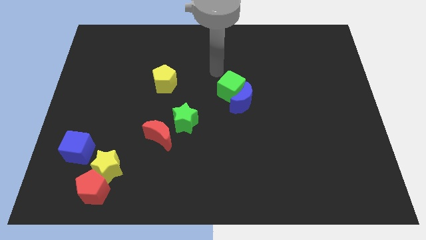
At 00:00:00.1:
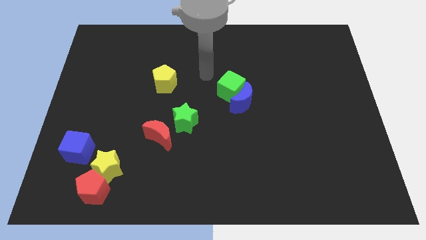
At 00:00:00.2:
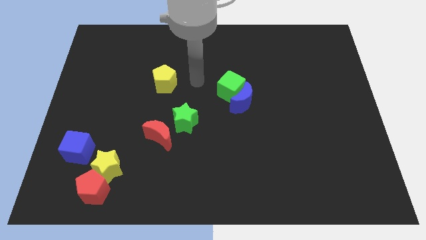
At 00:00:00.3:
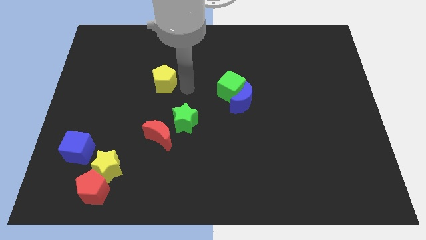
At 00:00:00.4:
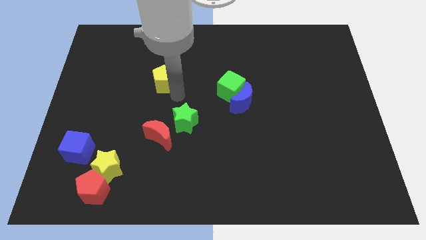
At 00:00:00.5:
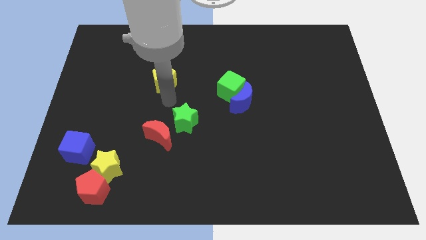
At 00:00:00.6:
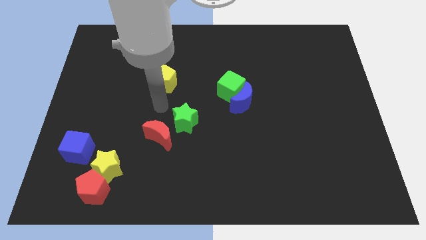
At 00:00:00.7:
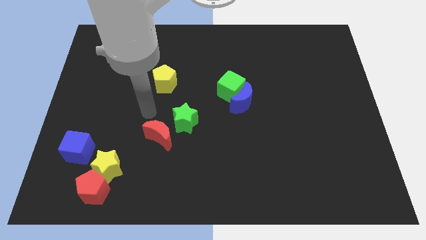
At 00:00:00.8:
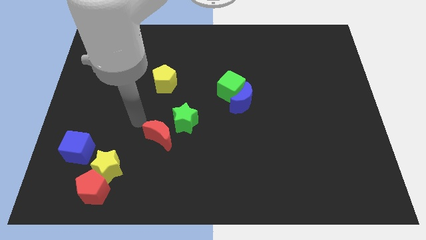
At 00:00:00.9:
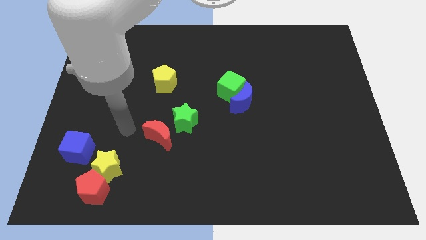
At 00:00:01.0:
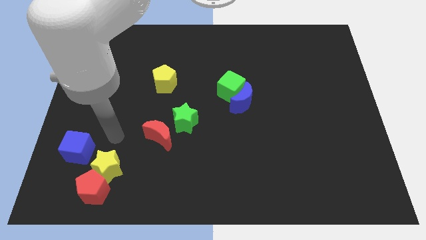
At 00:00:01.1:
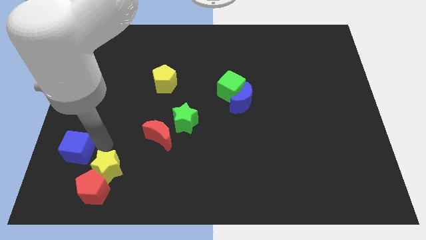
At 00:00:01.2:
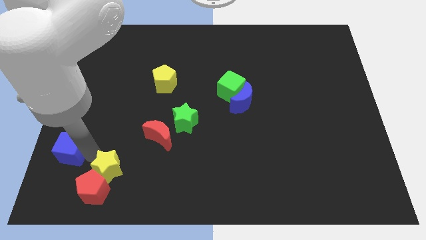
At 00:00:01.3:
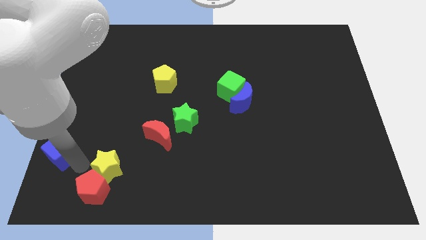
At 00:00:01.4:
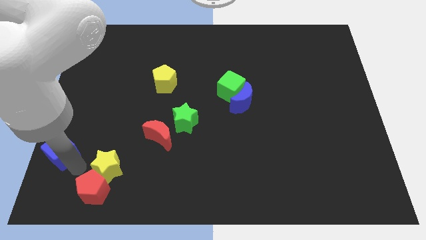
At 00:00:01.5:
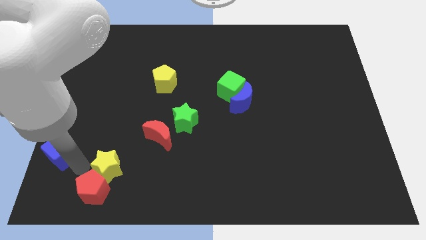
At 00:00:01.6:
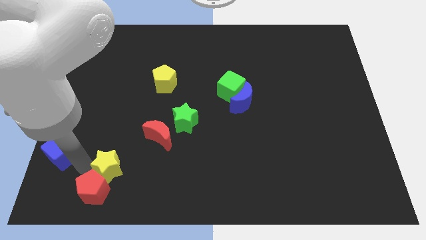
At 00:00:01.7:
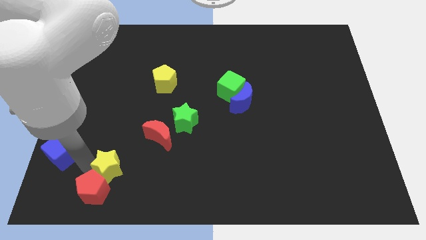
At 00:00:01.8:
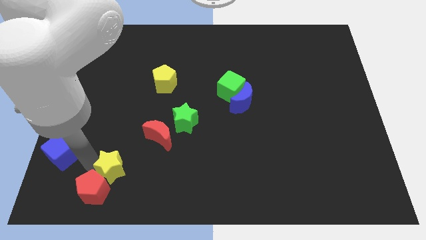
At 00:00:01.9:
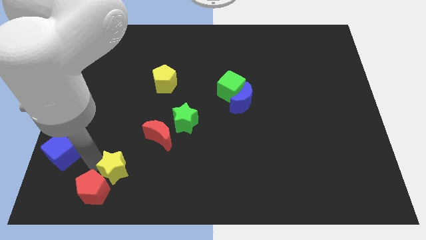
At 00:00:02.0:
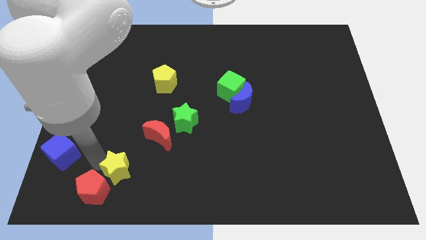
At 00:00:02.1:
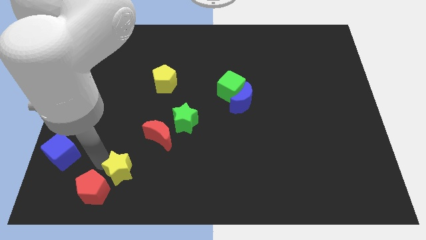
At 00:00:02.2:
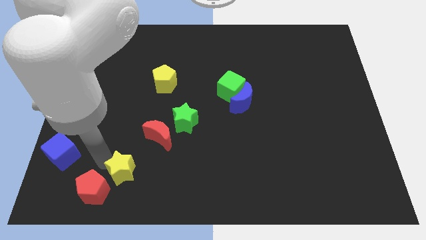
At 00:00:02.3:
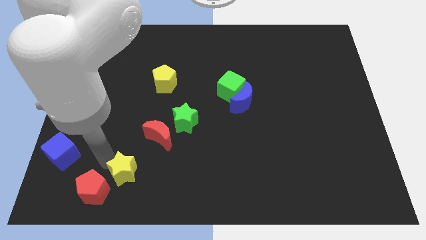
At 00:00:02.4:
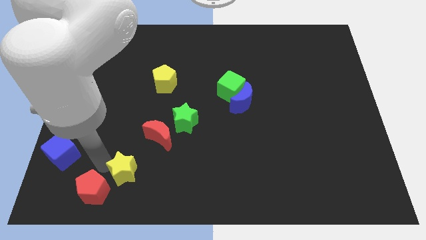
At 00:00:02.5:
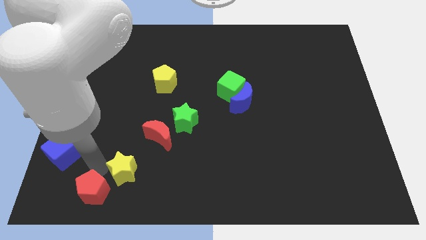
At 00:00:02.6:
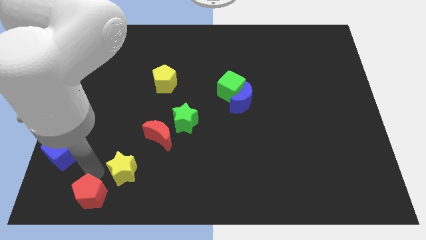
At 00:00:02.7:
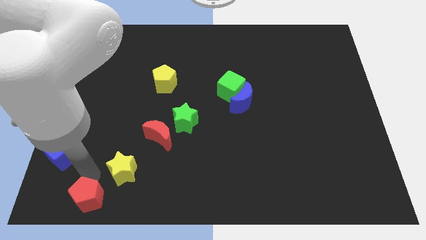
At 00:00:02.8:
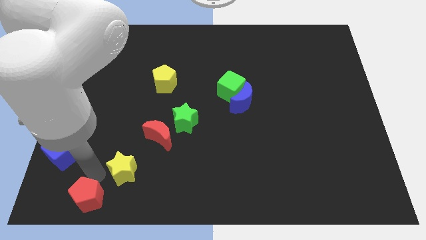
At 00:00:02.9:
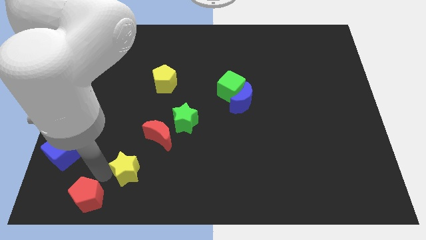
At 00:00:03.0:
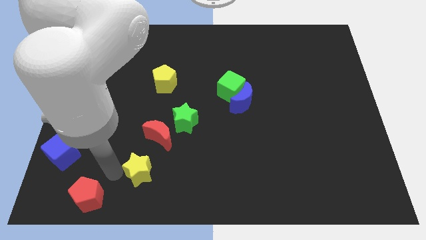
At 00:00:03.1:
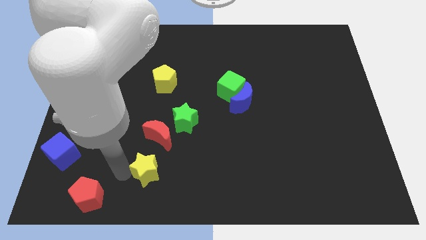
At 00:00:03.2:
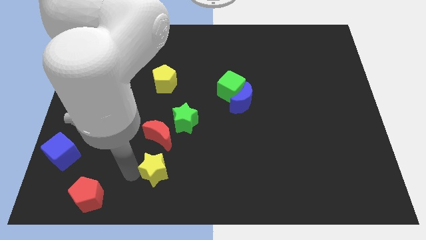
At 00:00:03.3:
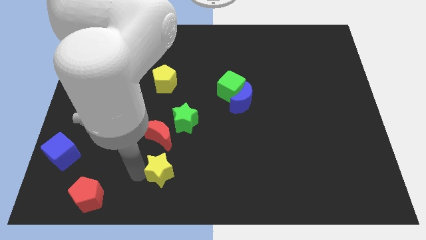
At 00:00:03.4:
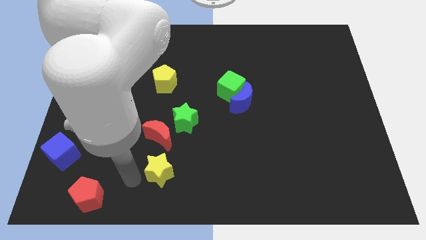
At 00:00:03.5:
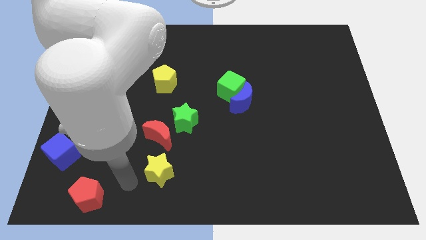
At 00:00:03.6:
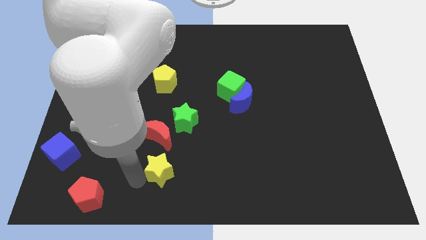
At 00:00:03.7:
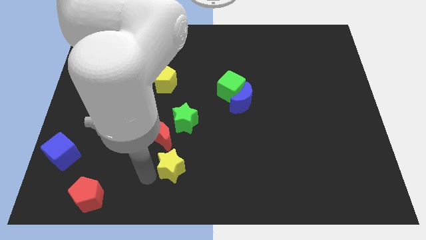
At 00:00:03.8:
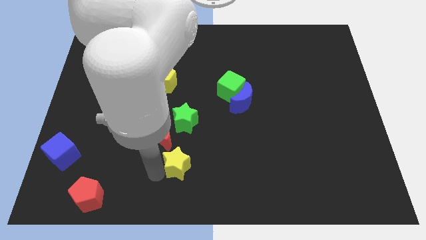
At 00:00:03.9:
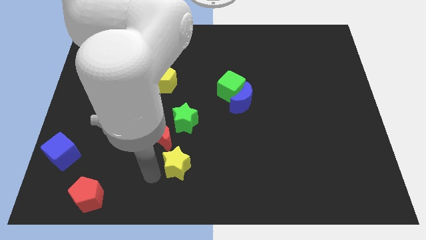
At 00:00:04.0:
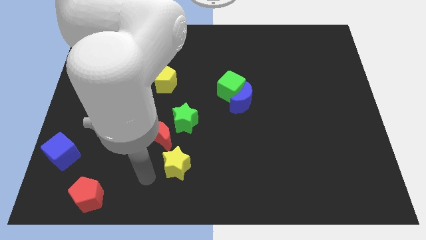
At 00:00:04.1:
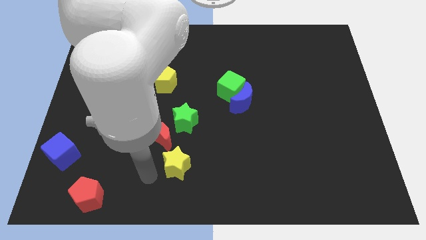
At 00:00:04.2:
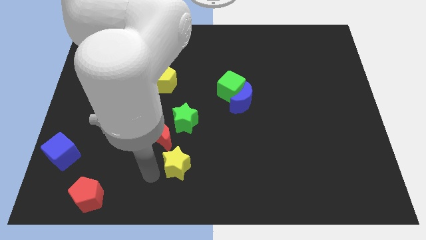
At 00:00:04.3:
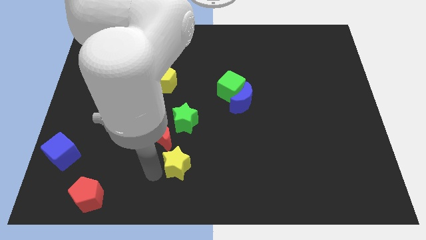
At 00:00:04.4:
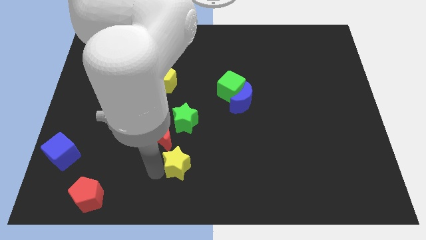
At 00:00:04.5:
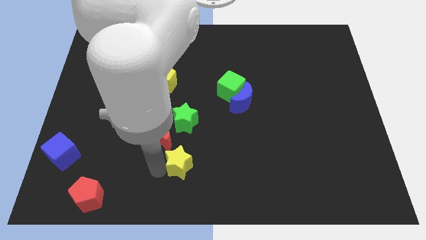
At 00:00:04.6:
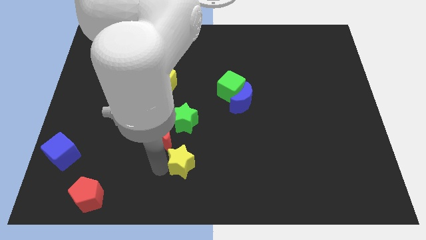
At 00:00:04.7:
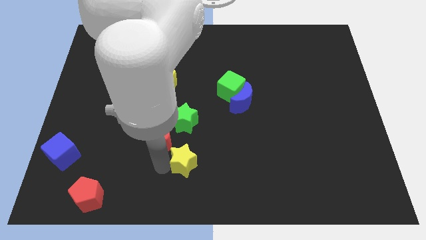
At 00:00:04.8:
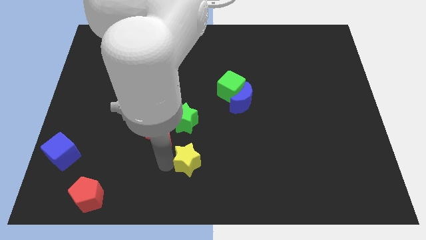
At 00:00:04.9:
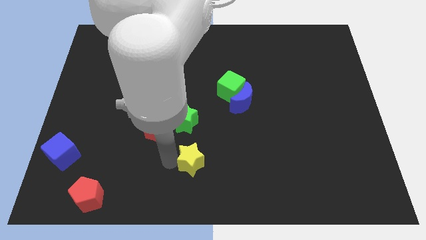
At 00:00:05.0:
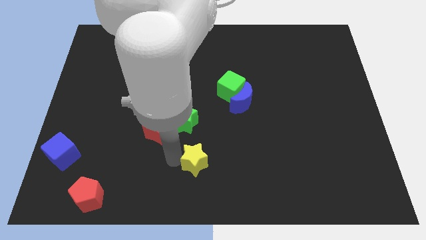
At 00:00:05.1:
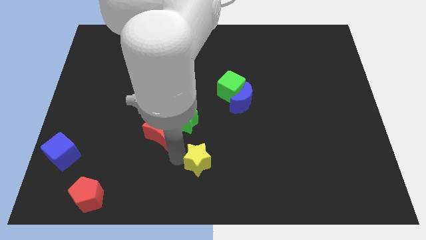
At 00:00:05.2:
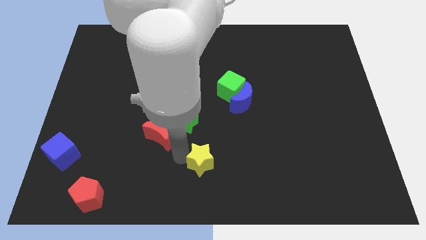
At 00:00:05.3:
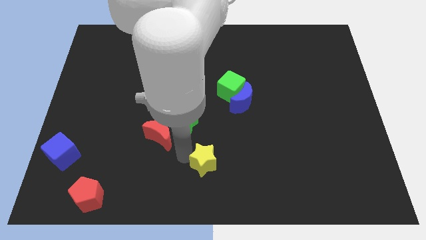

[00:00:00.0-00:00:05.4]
move the yellow star right

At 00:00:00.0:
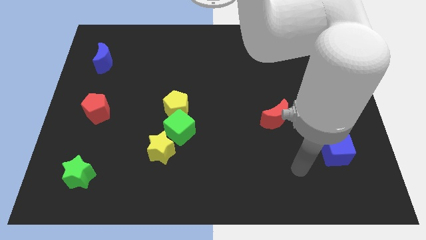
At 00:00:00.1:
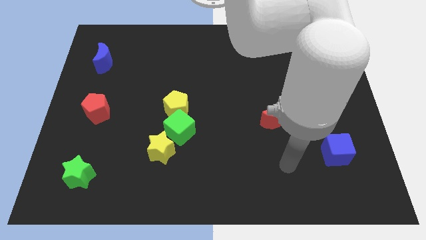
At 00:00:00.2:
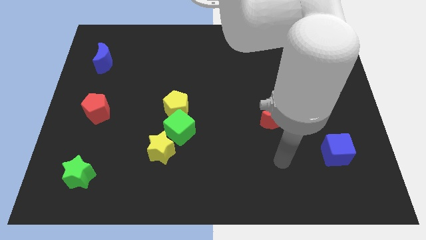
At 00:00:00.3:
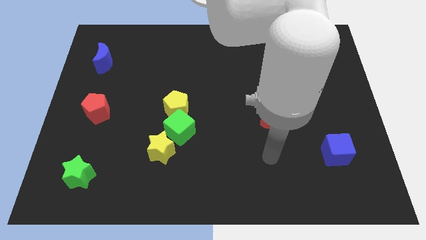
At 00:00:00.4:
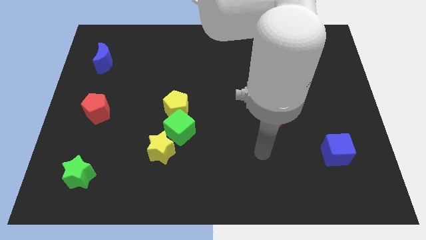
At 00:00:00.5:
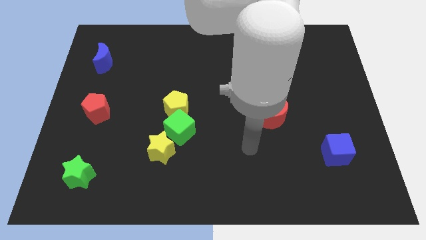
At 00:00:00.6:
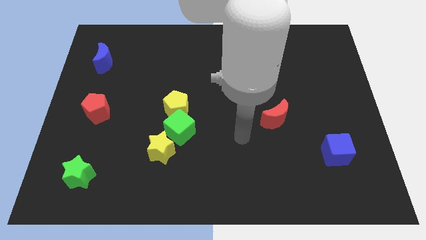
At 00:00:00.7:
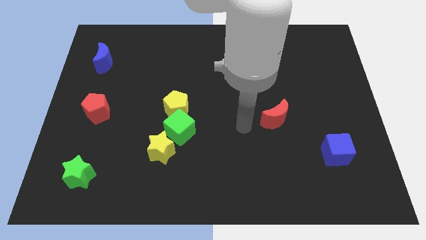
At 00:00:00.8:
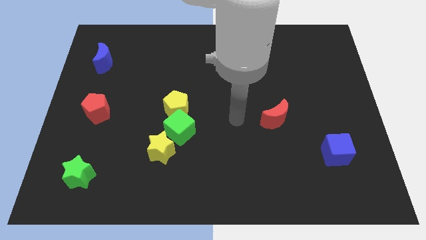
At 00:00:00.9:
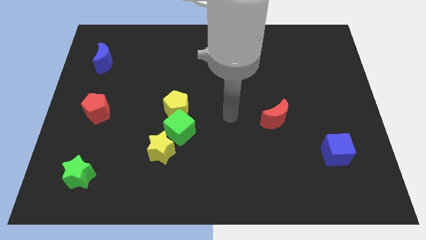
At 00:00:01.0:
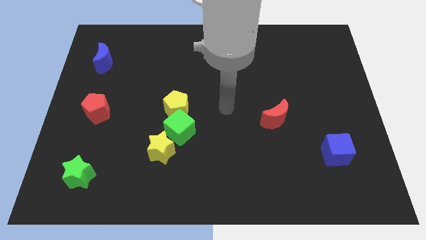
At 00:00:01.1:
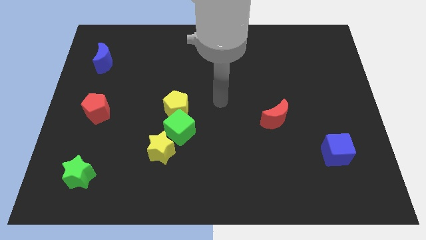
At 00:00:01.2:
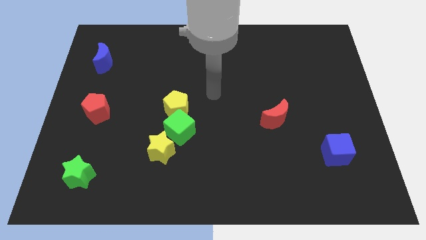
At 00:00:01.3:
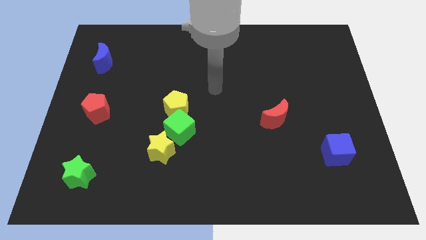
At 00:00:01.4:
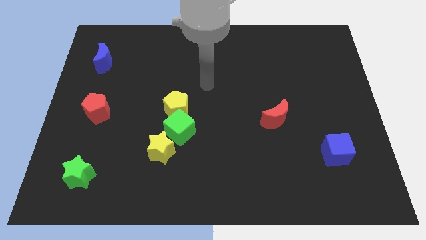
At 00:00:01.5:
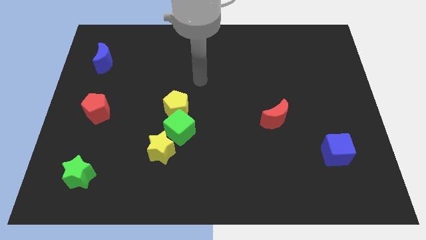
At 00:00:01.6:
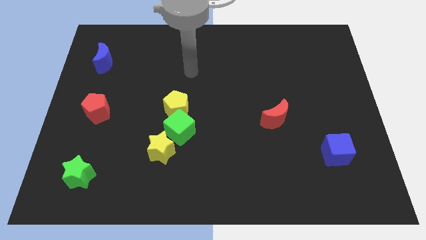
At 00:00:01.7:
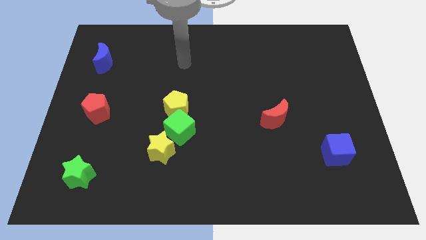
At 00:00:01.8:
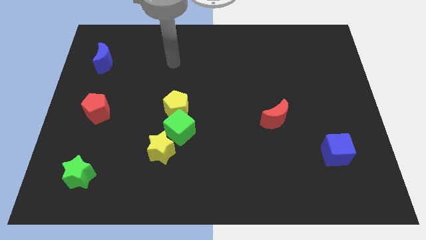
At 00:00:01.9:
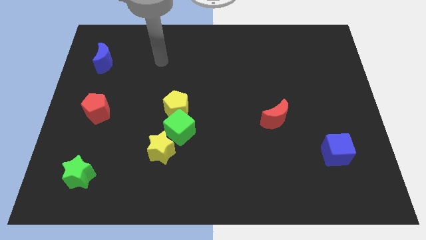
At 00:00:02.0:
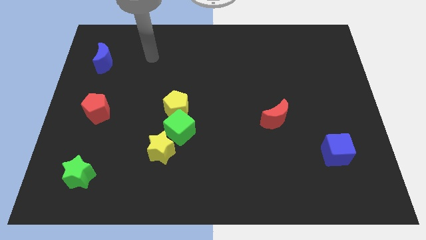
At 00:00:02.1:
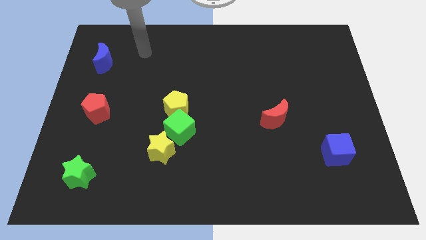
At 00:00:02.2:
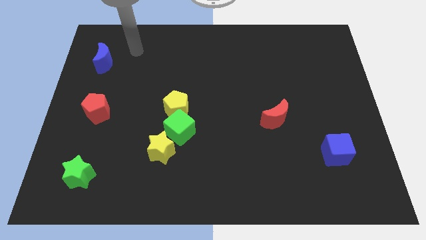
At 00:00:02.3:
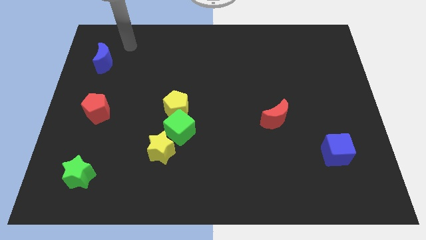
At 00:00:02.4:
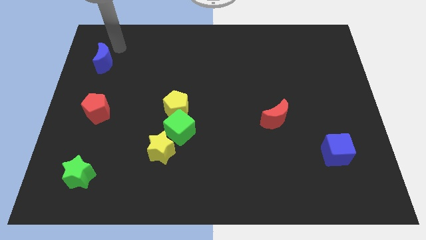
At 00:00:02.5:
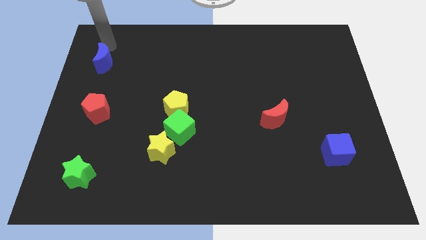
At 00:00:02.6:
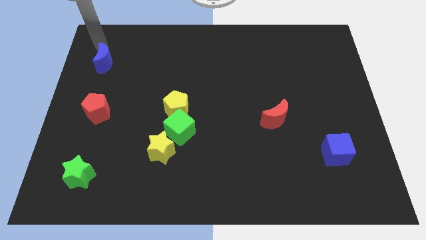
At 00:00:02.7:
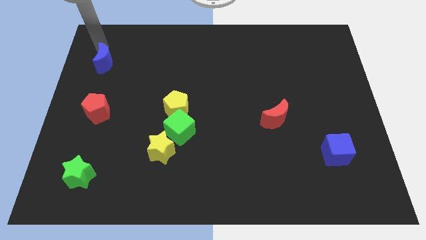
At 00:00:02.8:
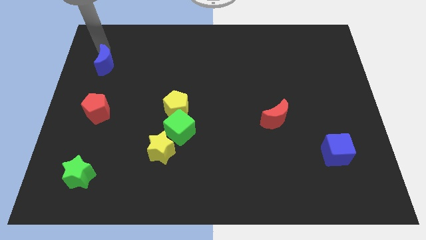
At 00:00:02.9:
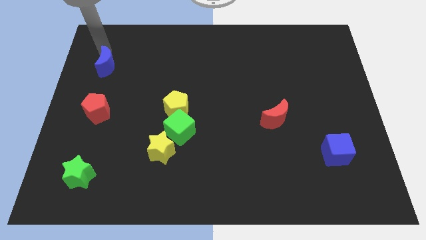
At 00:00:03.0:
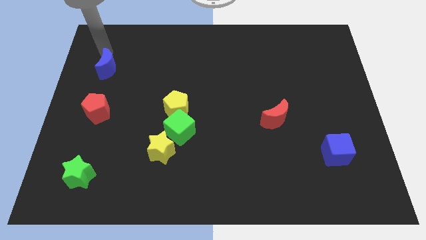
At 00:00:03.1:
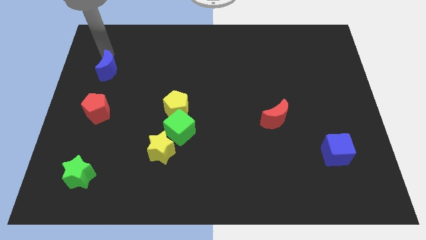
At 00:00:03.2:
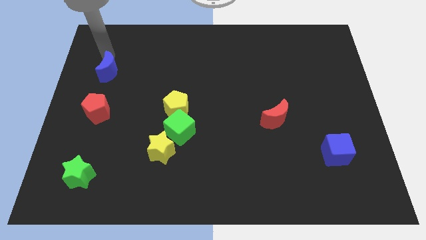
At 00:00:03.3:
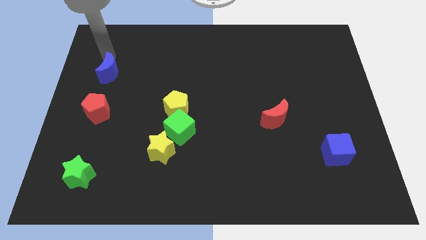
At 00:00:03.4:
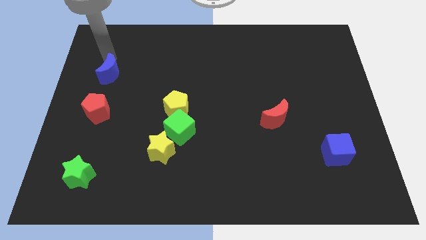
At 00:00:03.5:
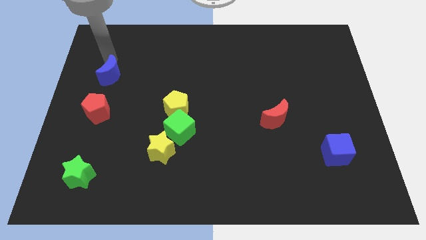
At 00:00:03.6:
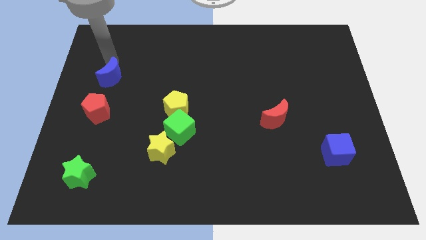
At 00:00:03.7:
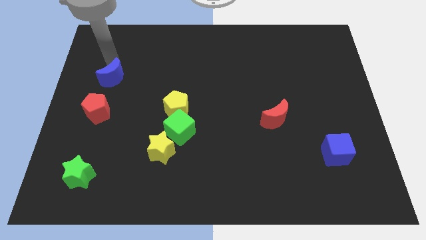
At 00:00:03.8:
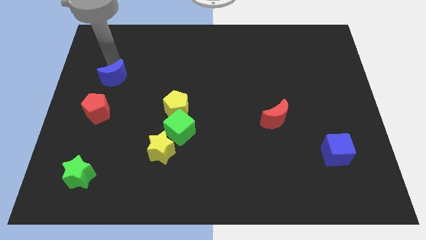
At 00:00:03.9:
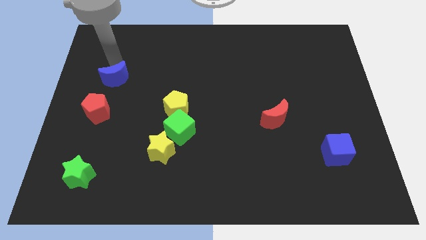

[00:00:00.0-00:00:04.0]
slide the blue moon down and then right a bit
